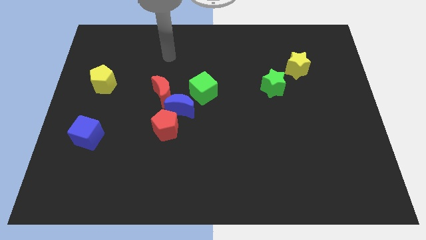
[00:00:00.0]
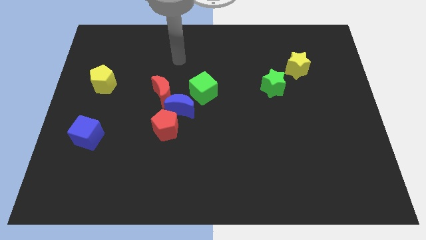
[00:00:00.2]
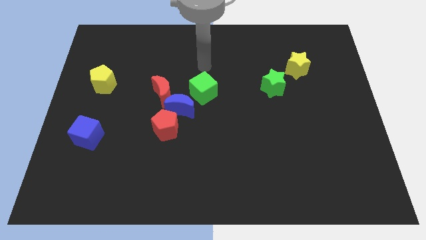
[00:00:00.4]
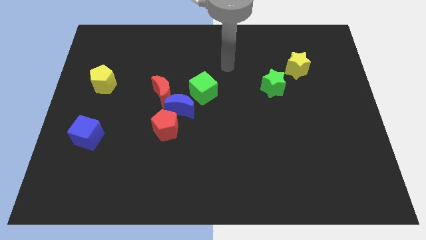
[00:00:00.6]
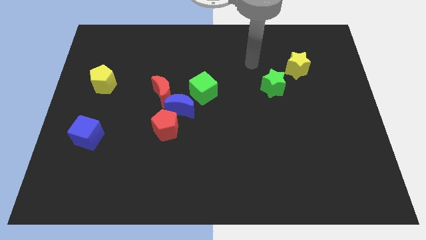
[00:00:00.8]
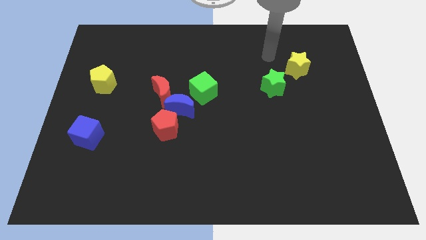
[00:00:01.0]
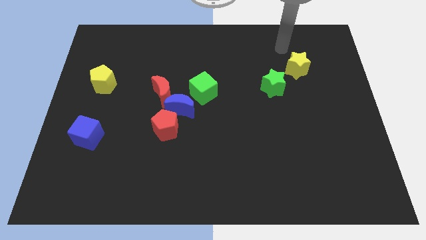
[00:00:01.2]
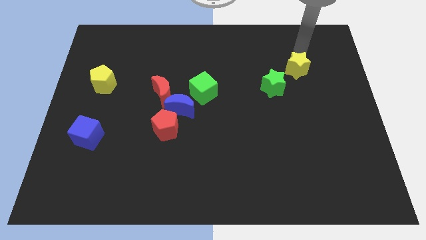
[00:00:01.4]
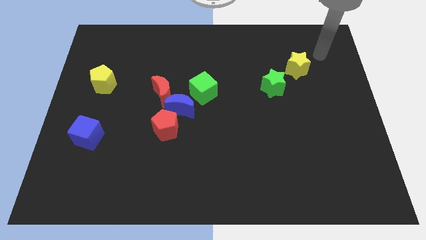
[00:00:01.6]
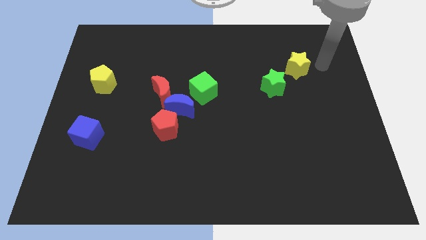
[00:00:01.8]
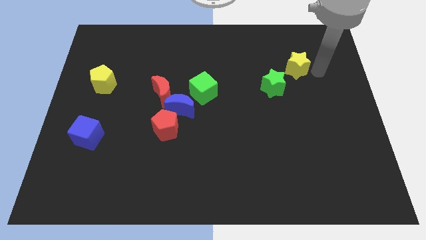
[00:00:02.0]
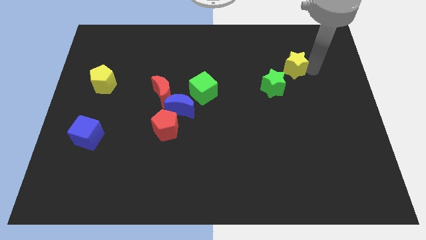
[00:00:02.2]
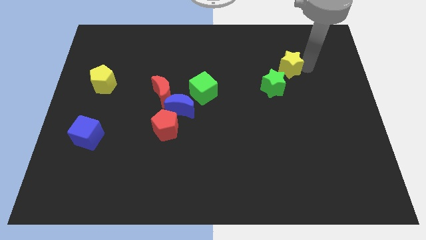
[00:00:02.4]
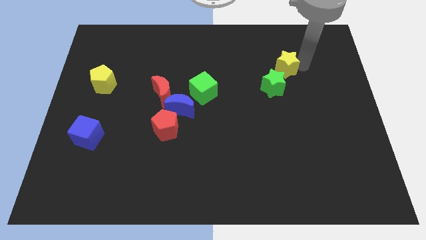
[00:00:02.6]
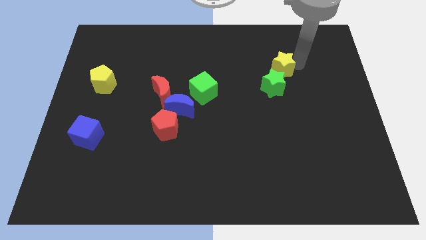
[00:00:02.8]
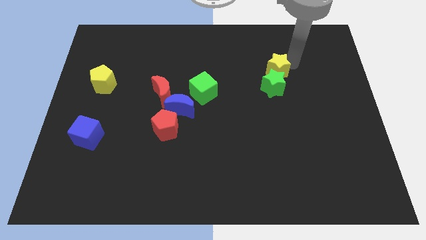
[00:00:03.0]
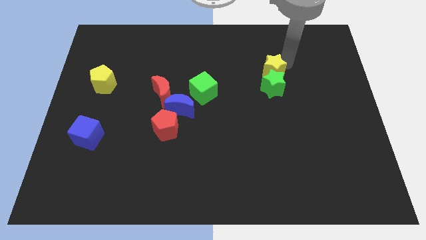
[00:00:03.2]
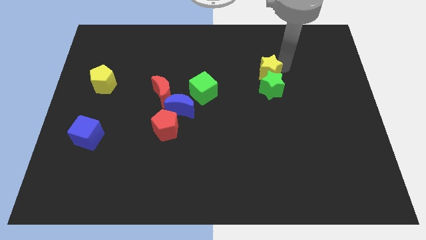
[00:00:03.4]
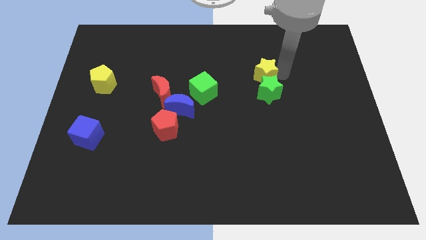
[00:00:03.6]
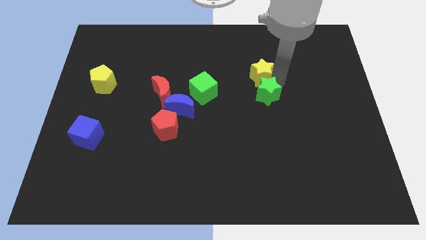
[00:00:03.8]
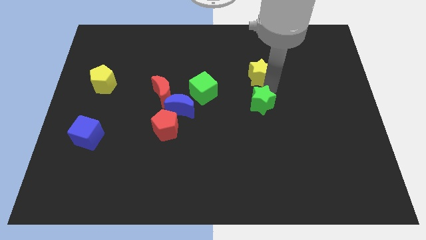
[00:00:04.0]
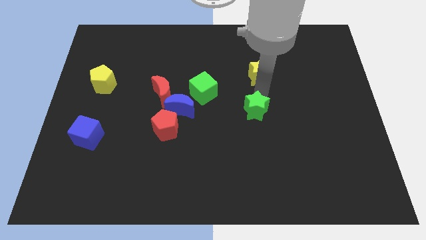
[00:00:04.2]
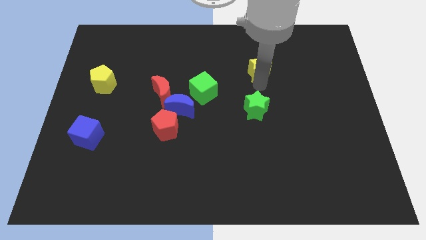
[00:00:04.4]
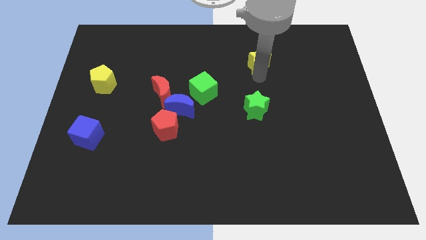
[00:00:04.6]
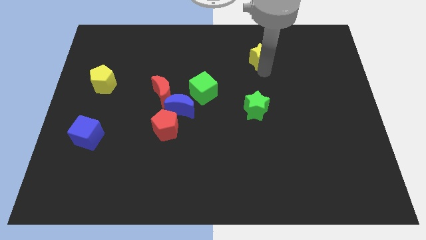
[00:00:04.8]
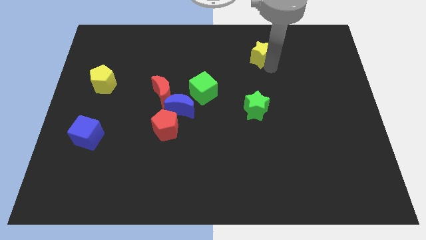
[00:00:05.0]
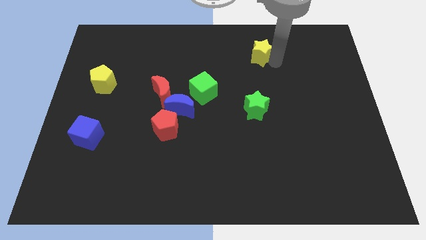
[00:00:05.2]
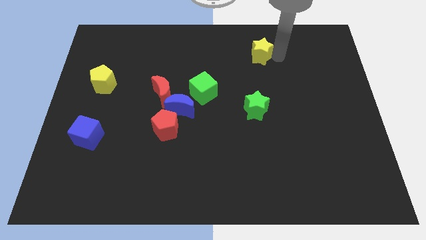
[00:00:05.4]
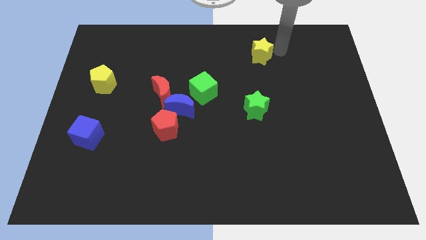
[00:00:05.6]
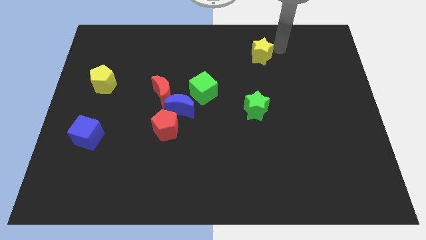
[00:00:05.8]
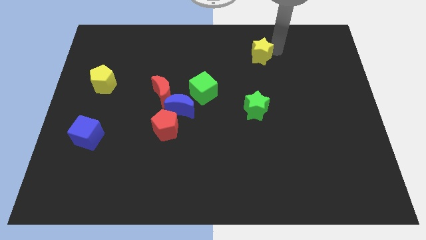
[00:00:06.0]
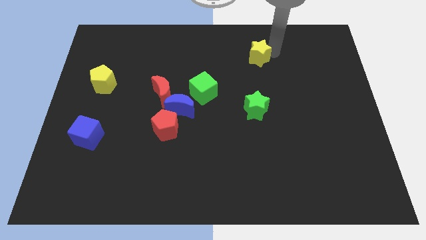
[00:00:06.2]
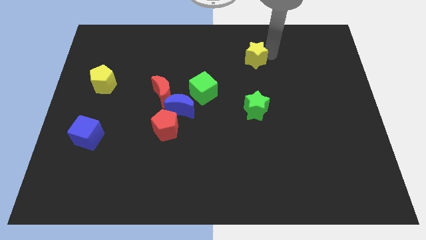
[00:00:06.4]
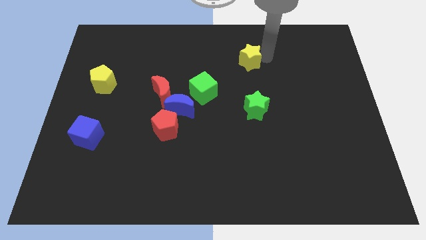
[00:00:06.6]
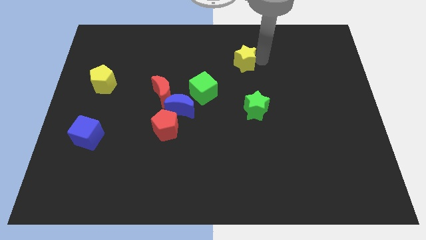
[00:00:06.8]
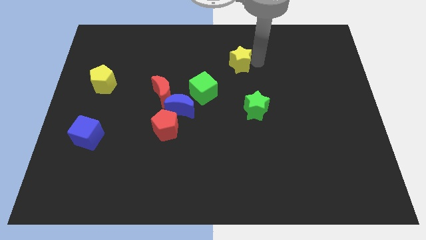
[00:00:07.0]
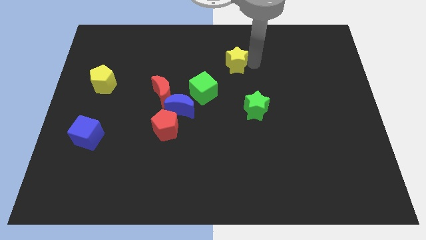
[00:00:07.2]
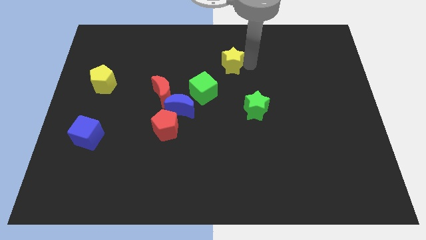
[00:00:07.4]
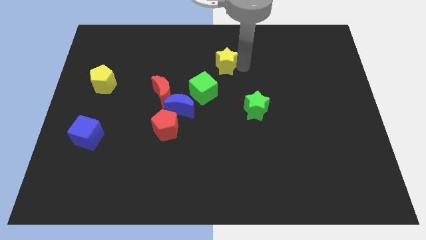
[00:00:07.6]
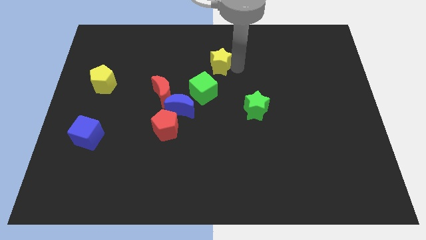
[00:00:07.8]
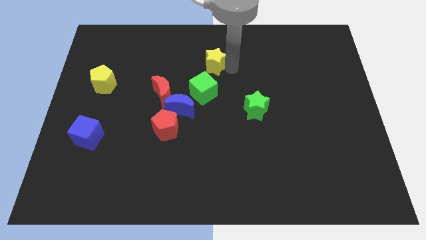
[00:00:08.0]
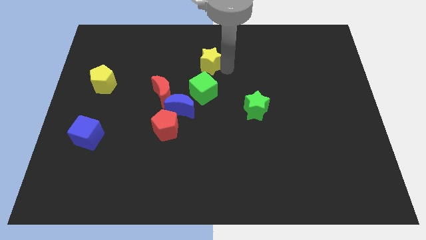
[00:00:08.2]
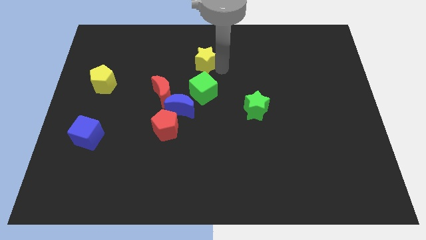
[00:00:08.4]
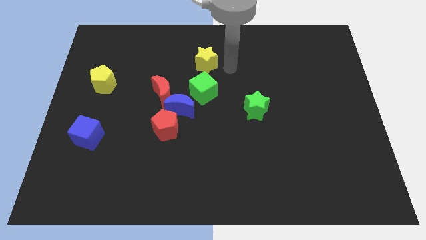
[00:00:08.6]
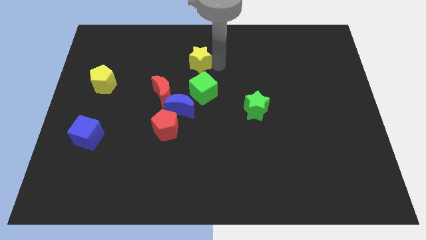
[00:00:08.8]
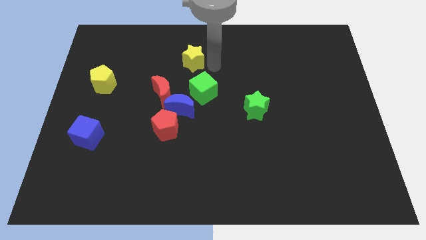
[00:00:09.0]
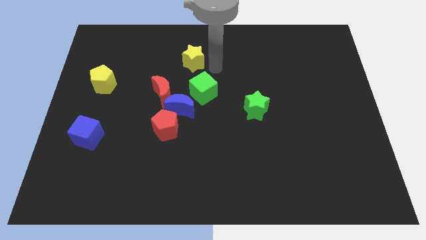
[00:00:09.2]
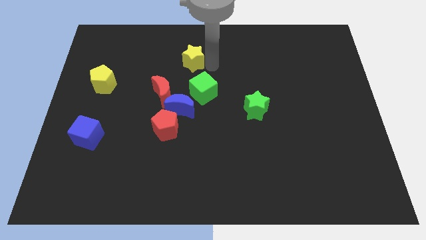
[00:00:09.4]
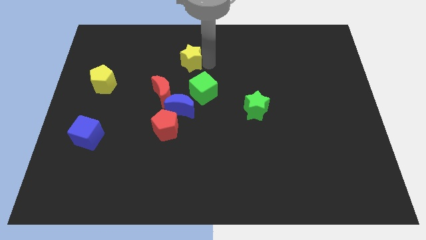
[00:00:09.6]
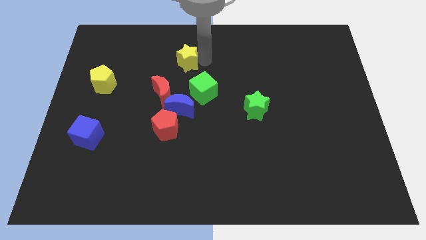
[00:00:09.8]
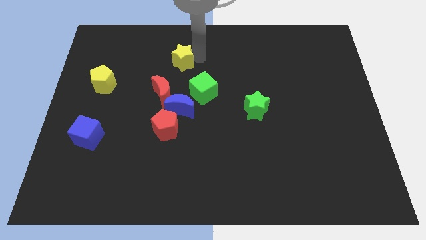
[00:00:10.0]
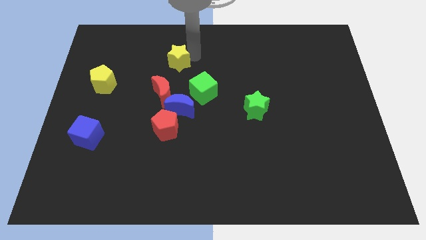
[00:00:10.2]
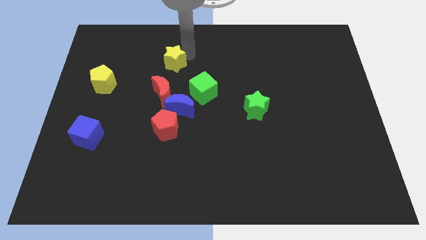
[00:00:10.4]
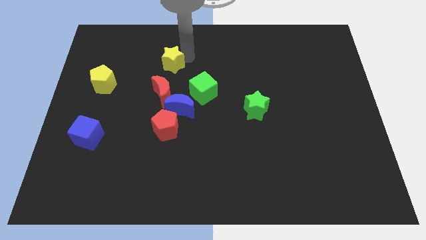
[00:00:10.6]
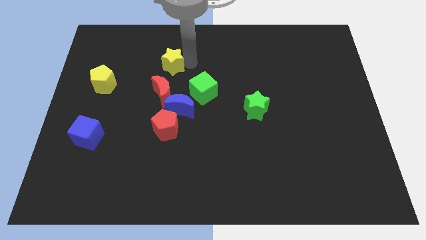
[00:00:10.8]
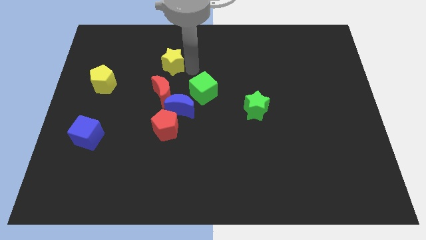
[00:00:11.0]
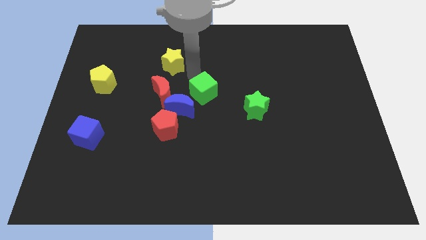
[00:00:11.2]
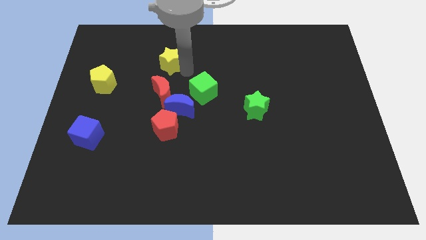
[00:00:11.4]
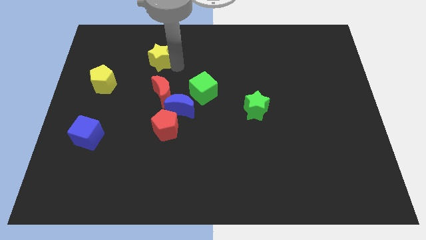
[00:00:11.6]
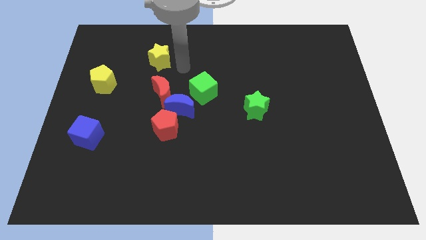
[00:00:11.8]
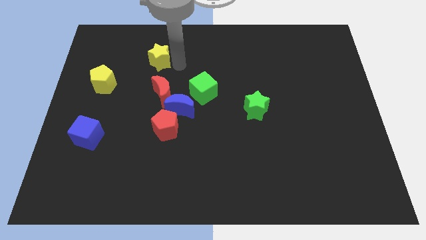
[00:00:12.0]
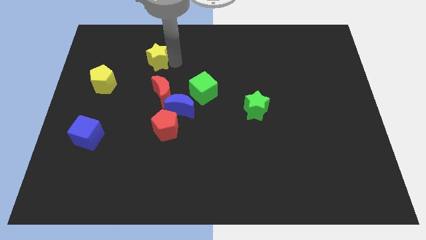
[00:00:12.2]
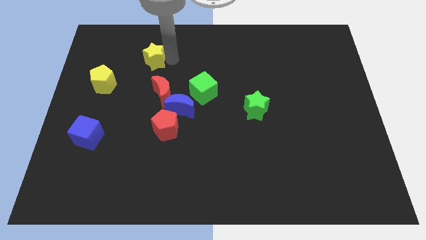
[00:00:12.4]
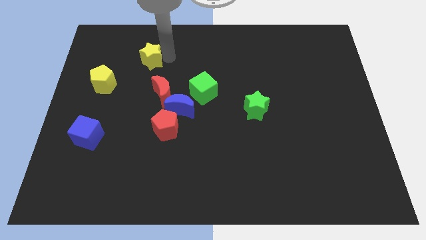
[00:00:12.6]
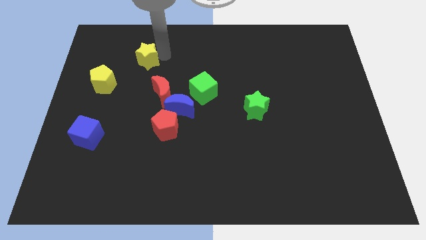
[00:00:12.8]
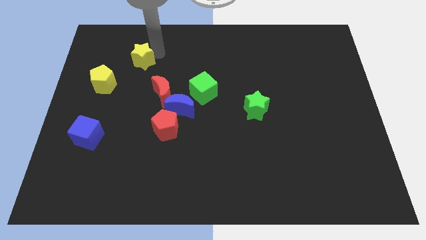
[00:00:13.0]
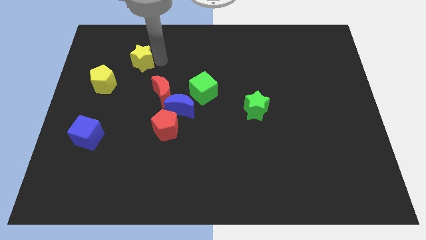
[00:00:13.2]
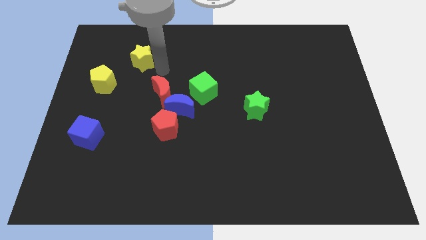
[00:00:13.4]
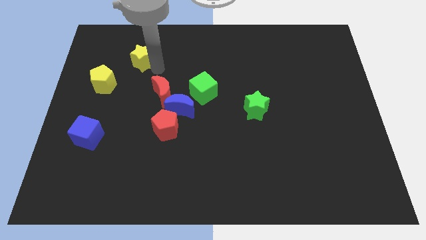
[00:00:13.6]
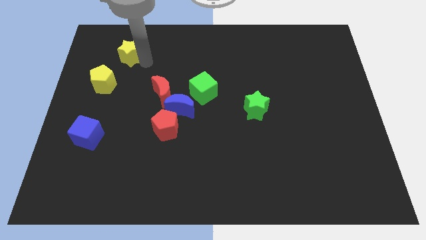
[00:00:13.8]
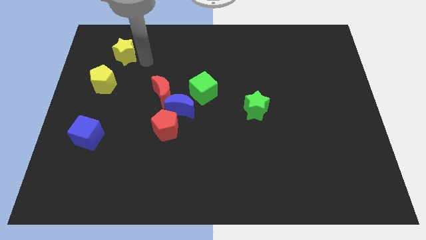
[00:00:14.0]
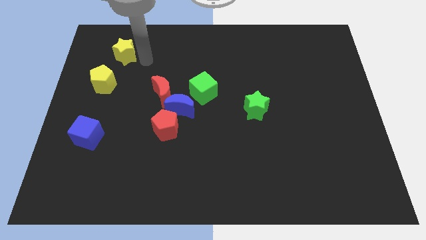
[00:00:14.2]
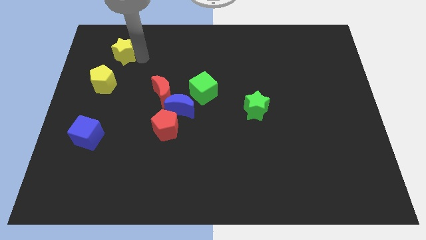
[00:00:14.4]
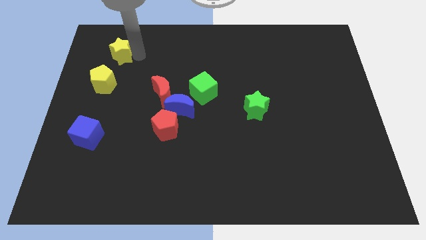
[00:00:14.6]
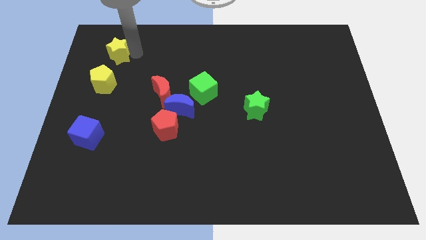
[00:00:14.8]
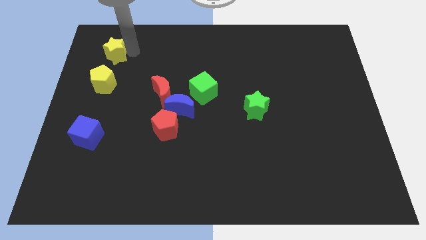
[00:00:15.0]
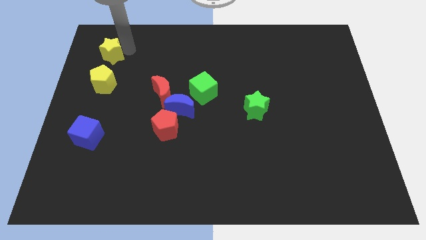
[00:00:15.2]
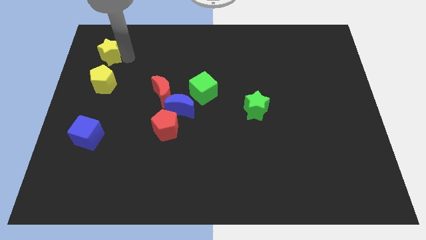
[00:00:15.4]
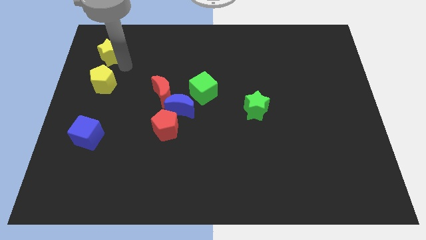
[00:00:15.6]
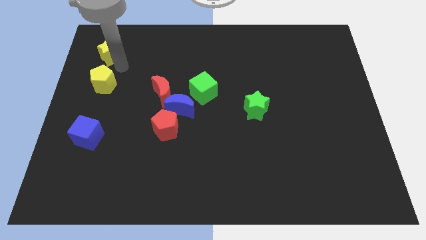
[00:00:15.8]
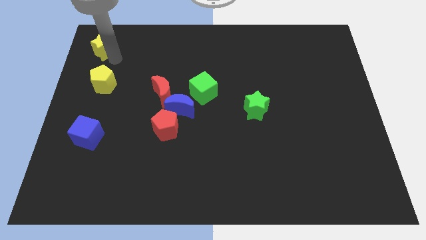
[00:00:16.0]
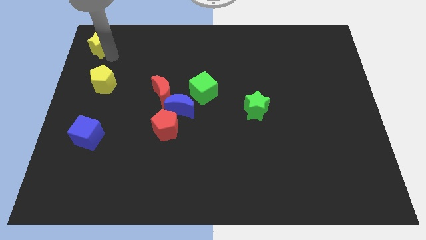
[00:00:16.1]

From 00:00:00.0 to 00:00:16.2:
push the yellow star to the top left
